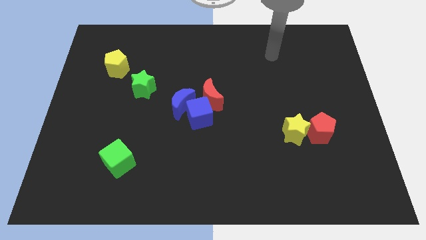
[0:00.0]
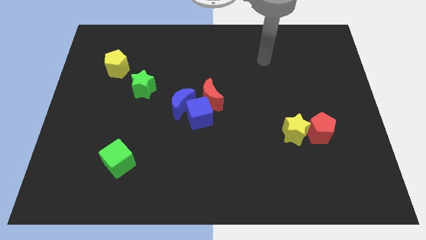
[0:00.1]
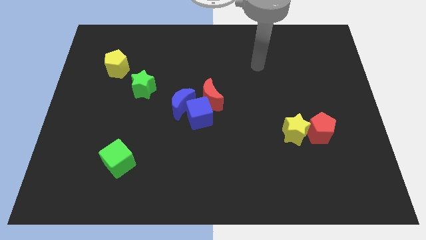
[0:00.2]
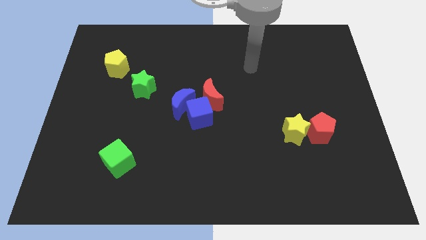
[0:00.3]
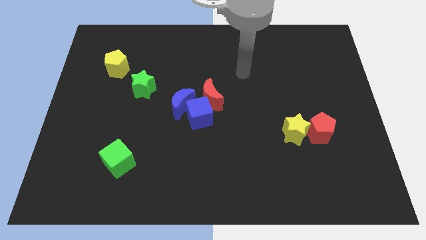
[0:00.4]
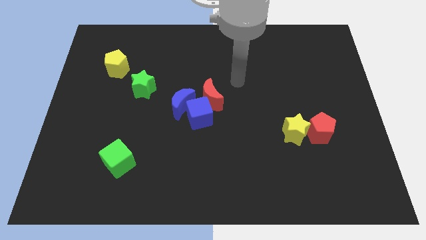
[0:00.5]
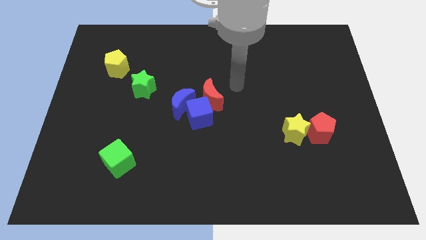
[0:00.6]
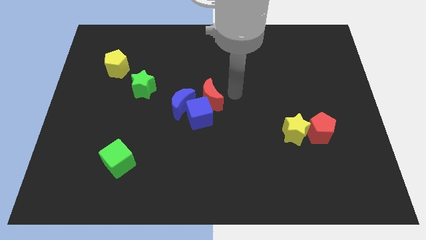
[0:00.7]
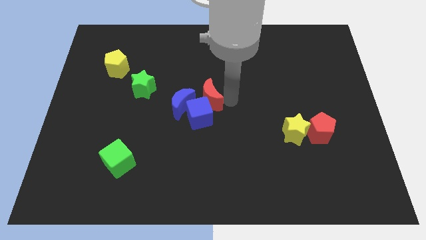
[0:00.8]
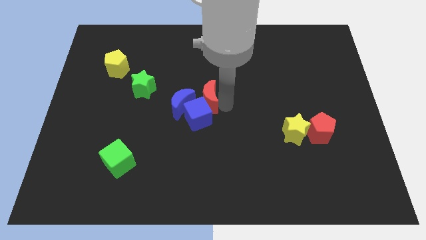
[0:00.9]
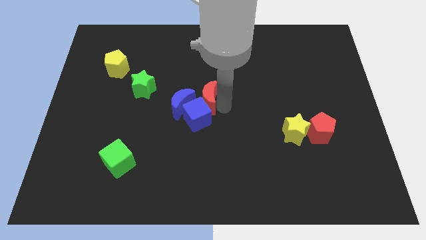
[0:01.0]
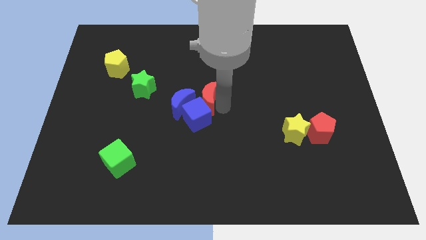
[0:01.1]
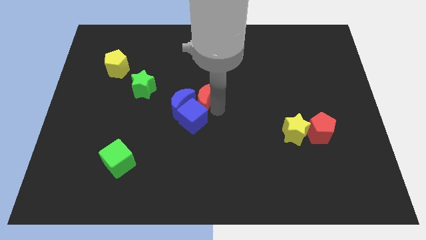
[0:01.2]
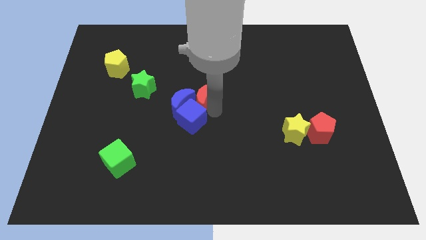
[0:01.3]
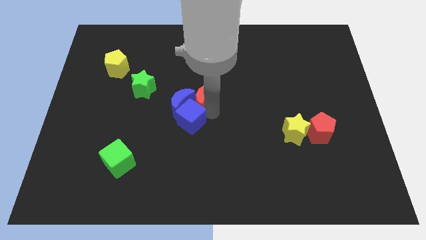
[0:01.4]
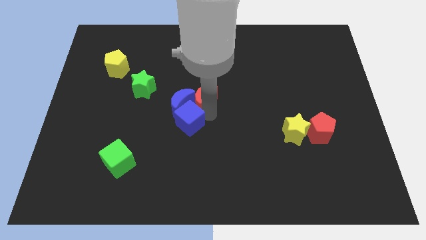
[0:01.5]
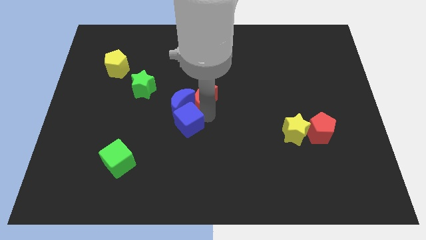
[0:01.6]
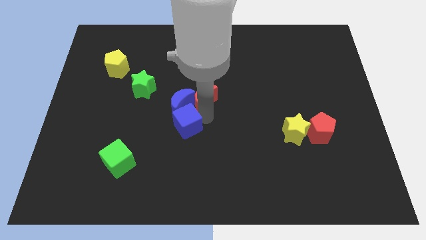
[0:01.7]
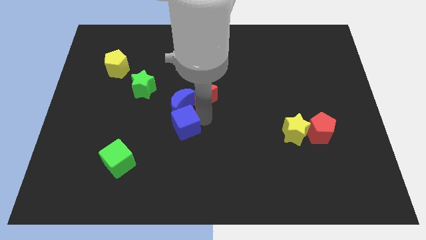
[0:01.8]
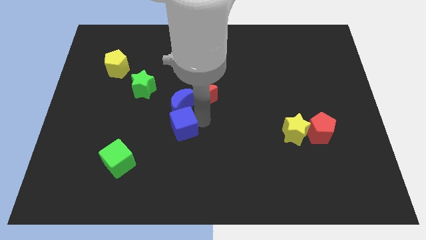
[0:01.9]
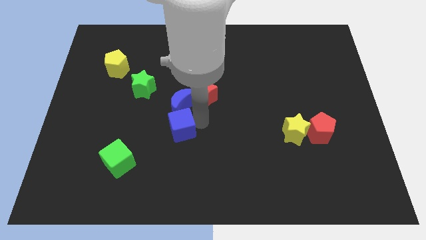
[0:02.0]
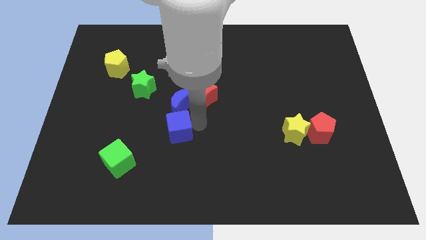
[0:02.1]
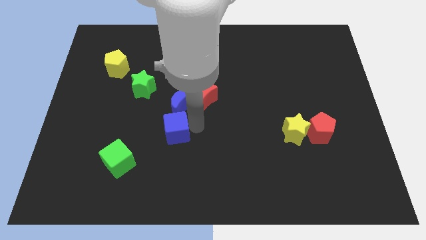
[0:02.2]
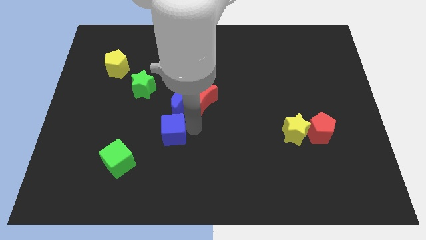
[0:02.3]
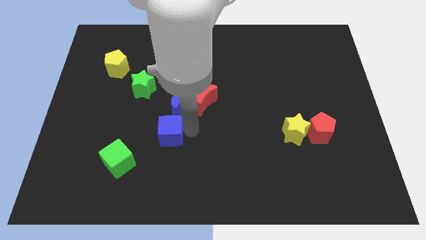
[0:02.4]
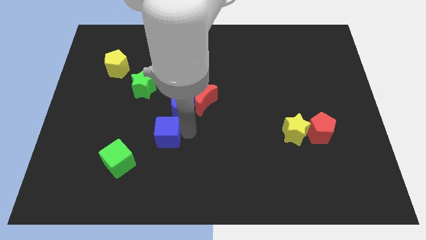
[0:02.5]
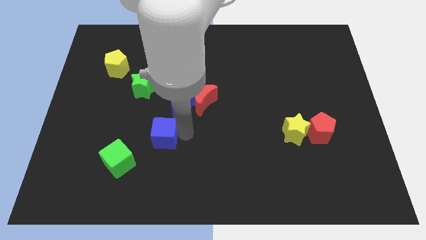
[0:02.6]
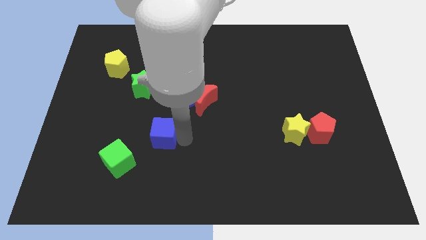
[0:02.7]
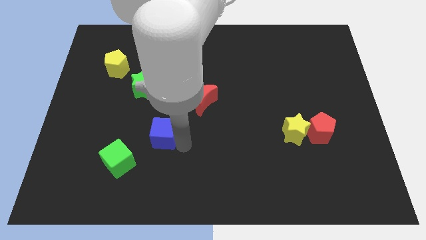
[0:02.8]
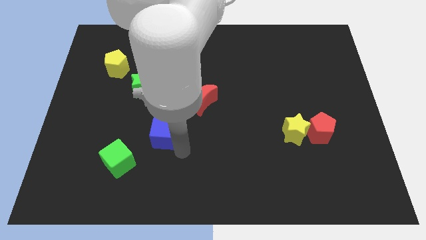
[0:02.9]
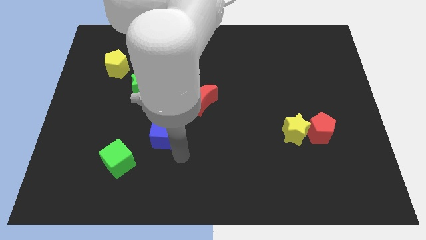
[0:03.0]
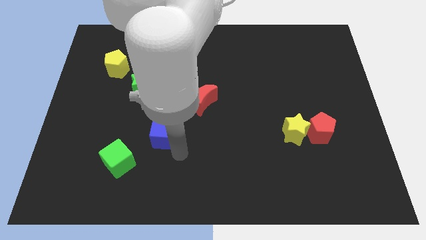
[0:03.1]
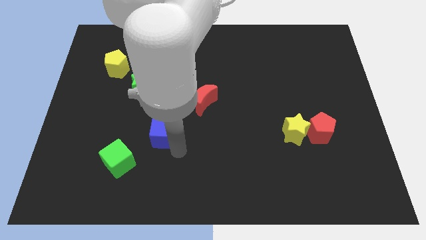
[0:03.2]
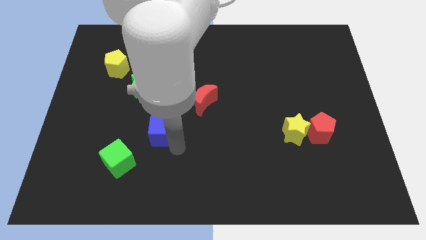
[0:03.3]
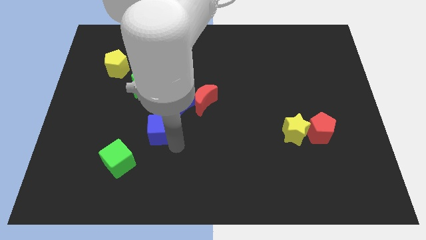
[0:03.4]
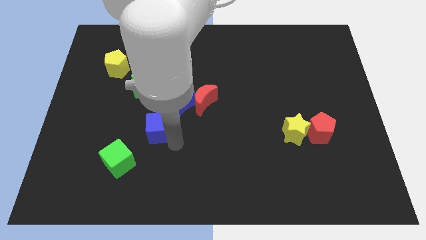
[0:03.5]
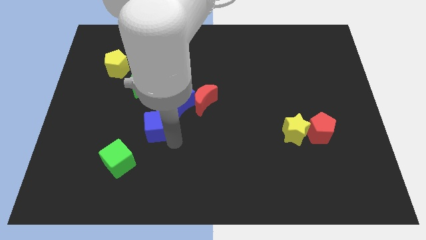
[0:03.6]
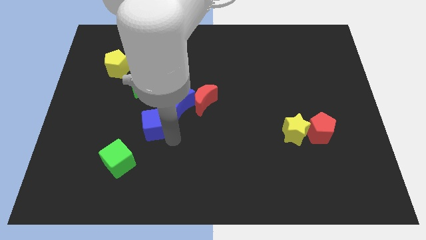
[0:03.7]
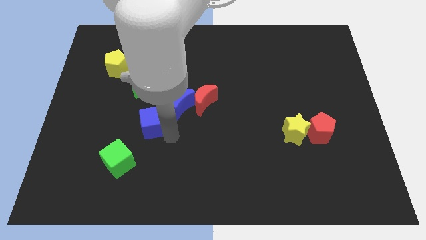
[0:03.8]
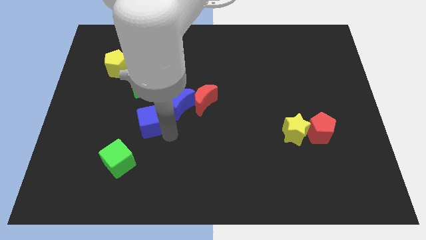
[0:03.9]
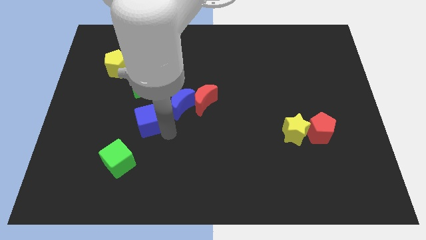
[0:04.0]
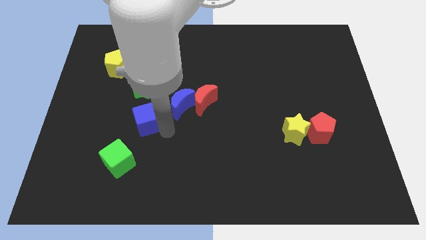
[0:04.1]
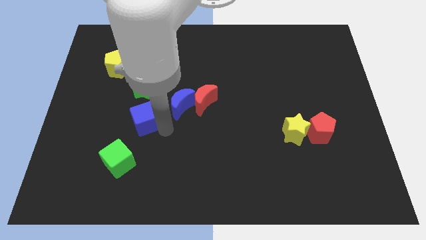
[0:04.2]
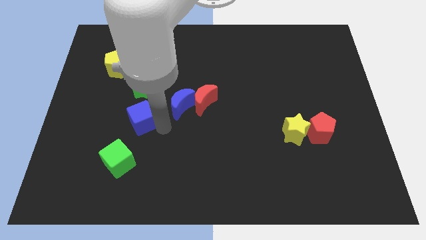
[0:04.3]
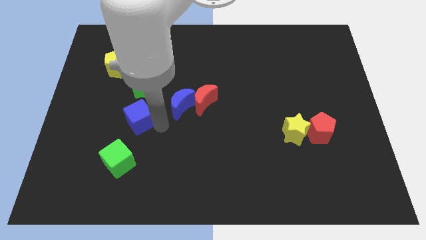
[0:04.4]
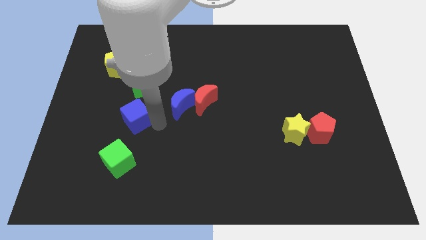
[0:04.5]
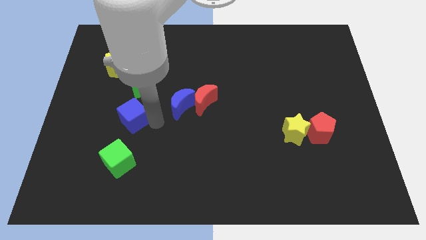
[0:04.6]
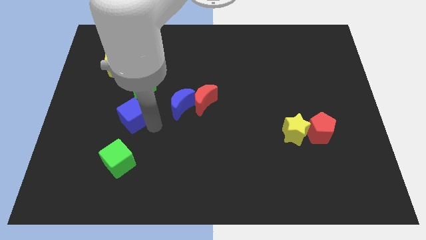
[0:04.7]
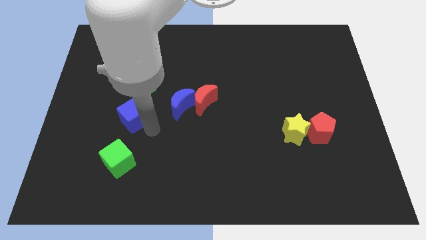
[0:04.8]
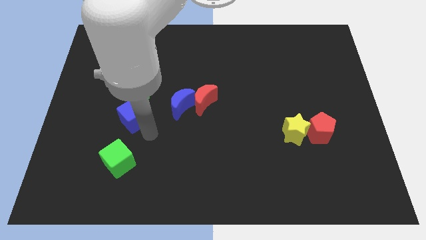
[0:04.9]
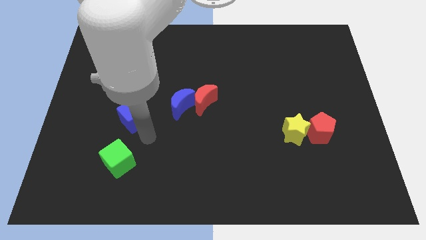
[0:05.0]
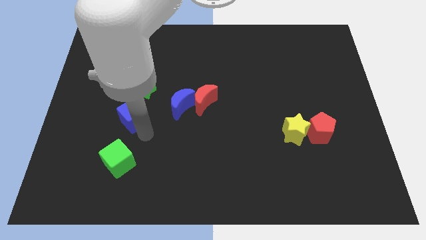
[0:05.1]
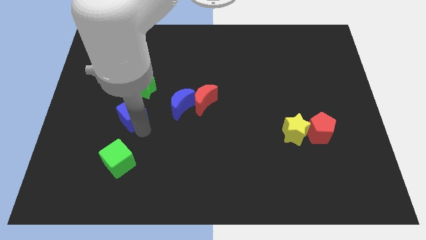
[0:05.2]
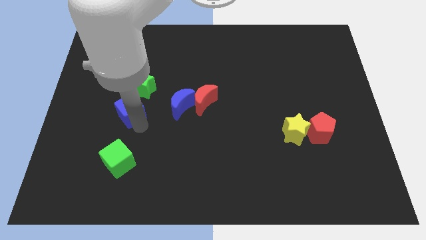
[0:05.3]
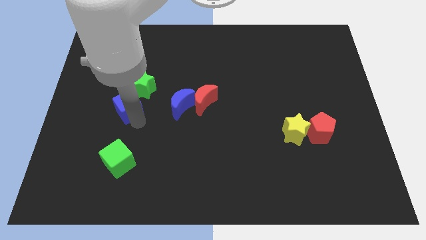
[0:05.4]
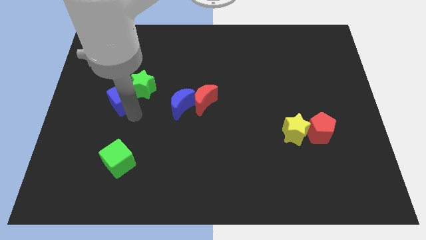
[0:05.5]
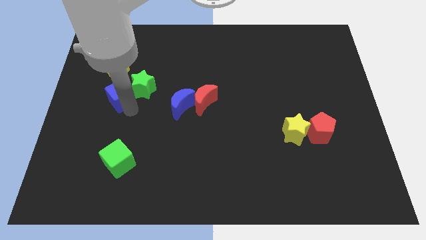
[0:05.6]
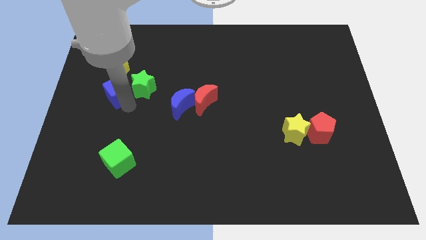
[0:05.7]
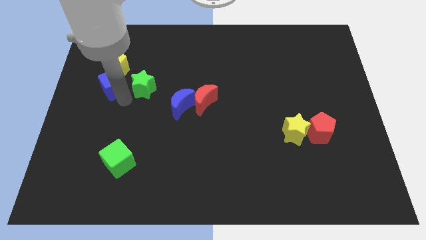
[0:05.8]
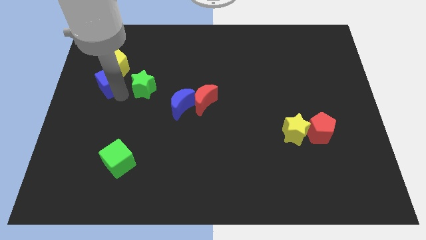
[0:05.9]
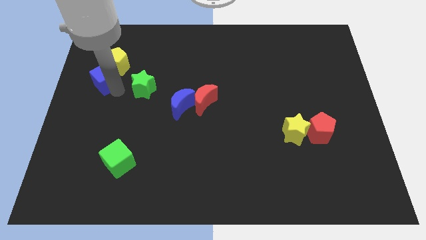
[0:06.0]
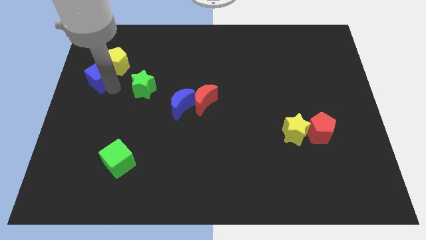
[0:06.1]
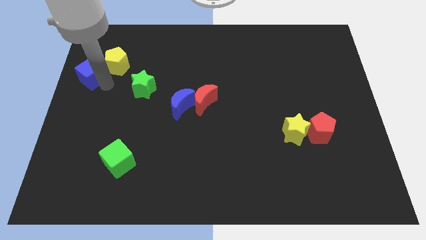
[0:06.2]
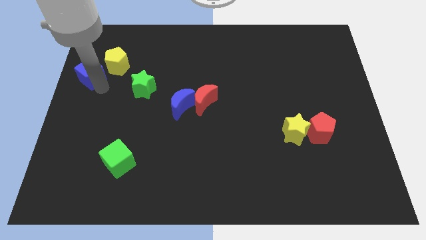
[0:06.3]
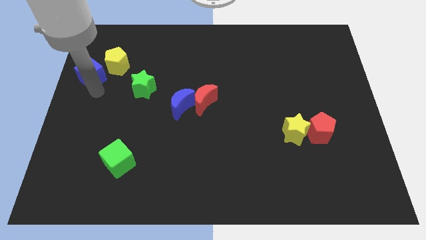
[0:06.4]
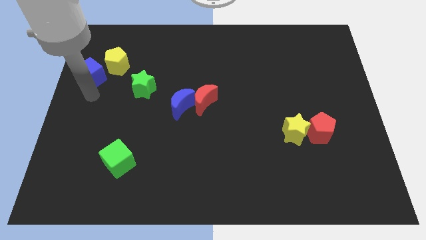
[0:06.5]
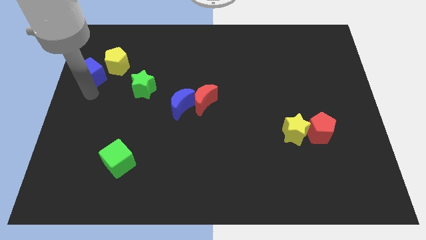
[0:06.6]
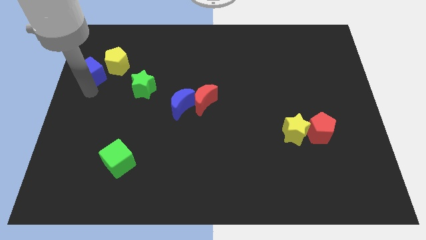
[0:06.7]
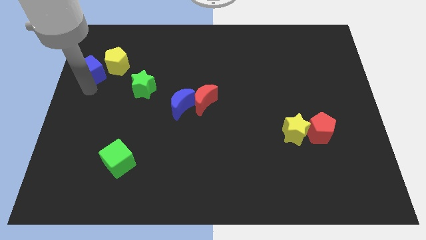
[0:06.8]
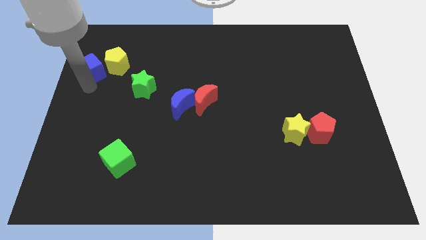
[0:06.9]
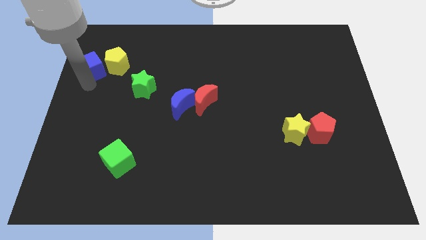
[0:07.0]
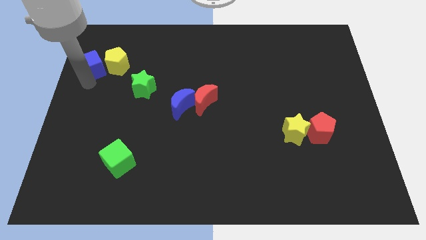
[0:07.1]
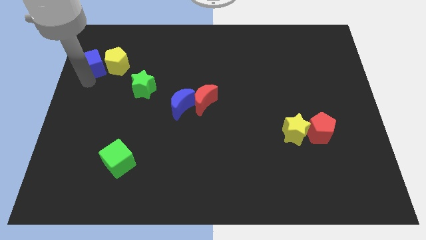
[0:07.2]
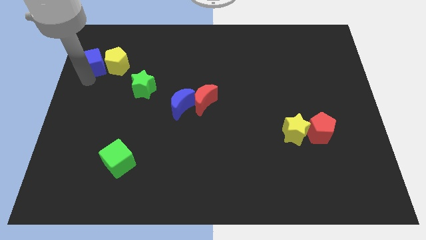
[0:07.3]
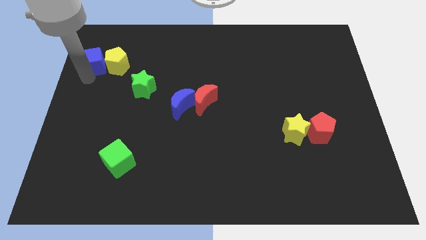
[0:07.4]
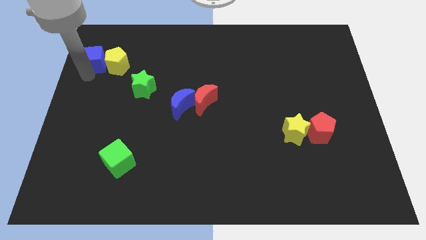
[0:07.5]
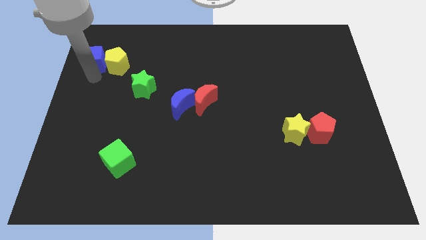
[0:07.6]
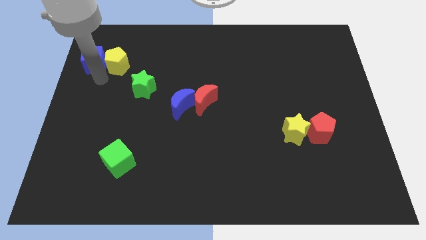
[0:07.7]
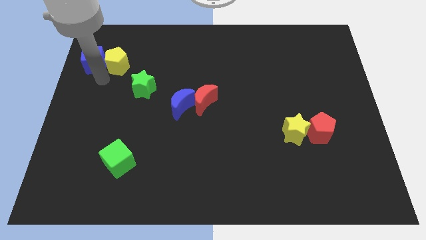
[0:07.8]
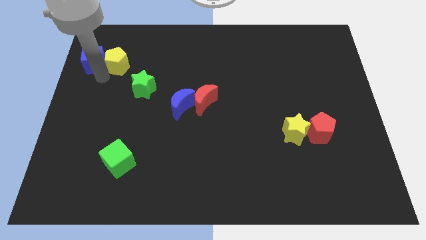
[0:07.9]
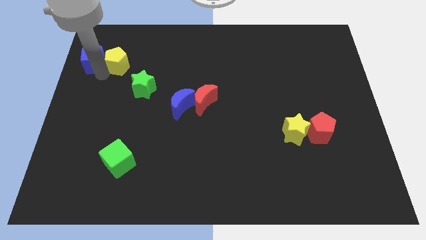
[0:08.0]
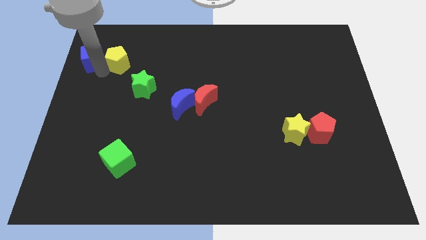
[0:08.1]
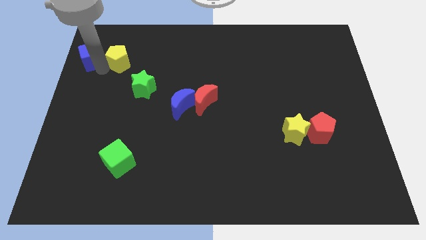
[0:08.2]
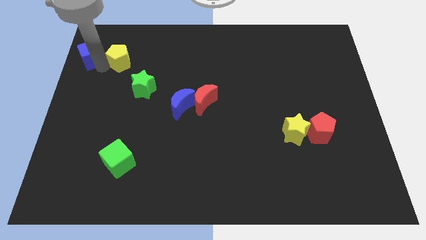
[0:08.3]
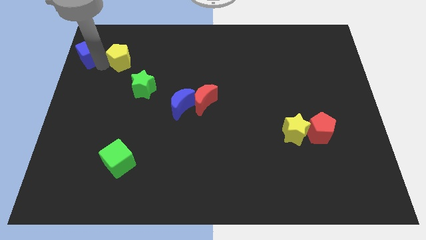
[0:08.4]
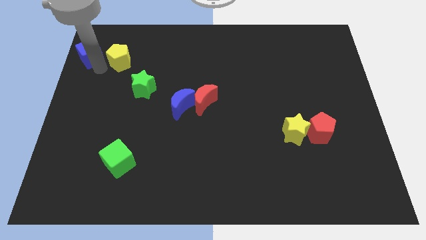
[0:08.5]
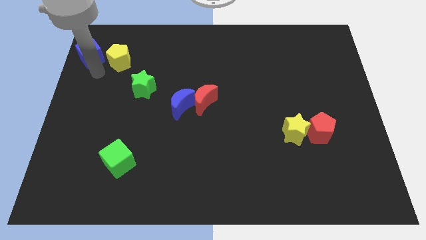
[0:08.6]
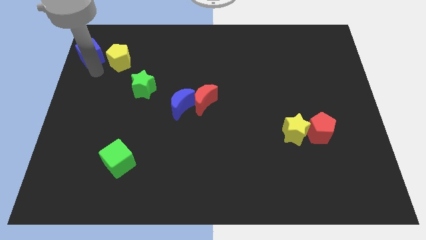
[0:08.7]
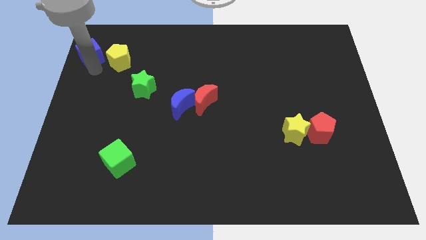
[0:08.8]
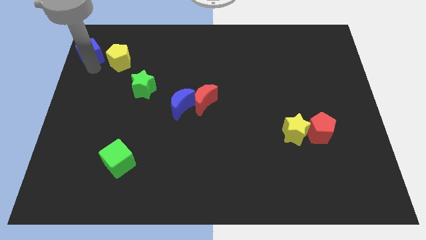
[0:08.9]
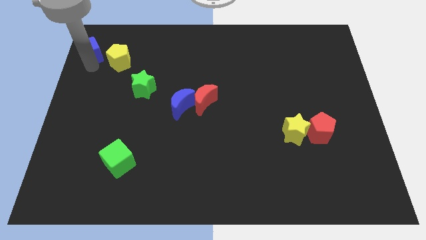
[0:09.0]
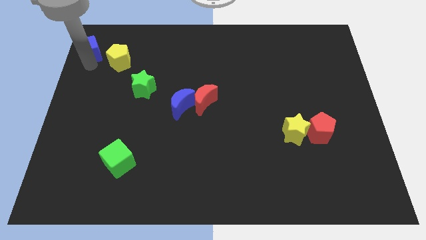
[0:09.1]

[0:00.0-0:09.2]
slide the blue cube to the upper left corner
